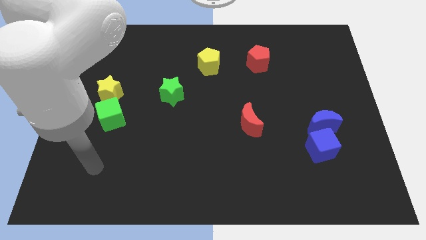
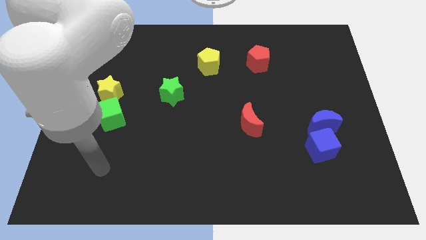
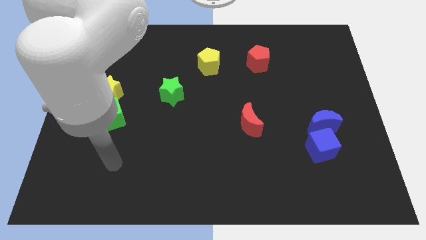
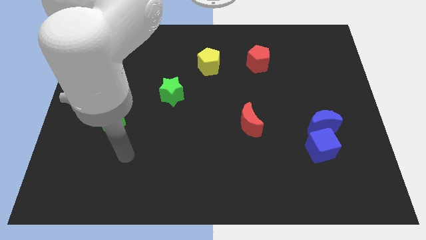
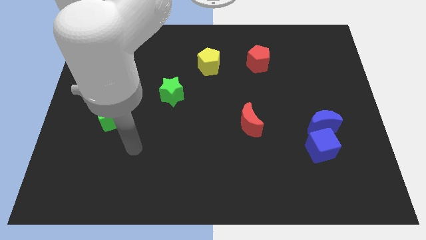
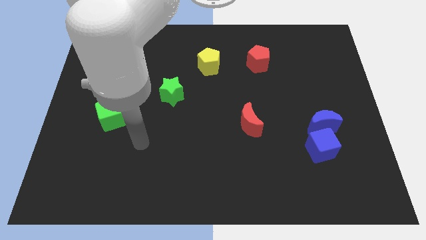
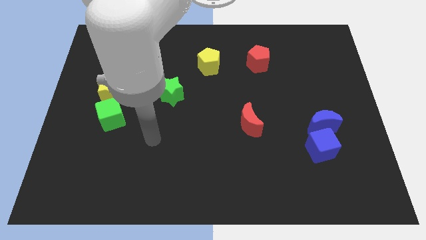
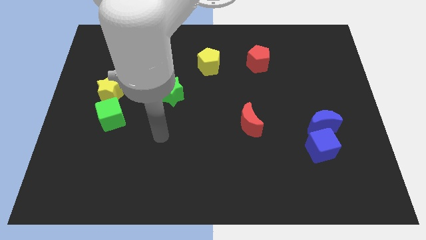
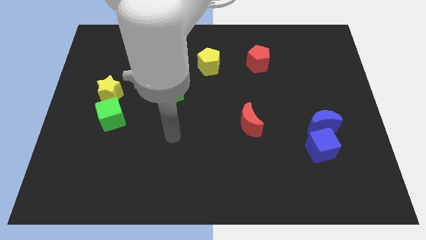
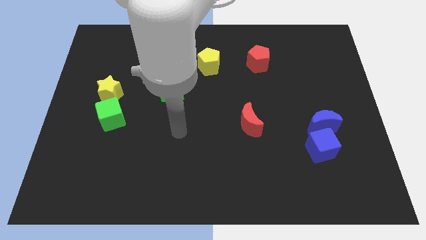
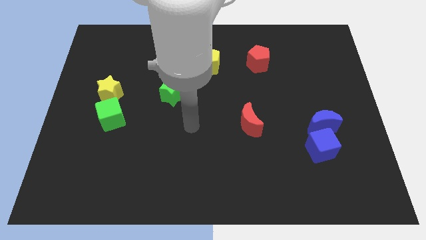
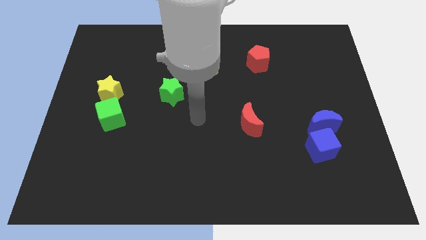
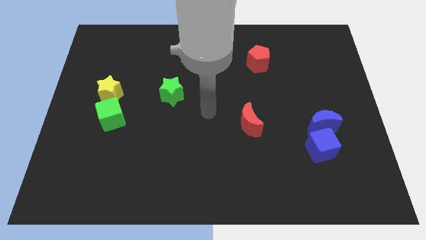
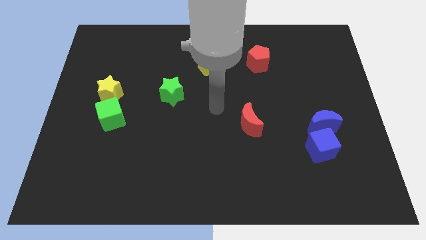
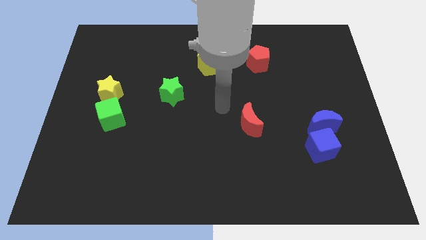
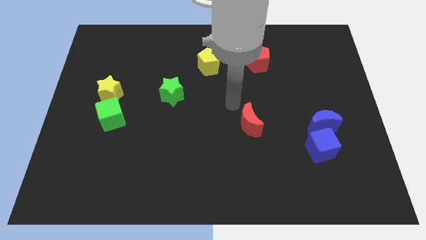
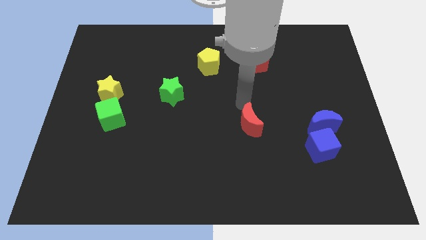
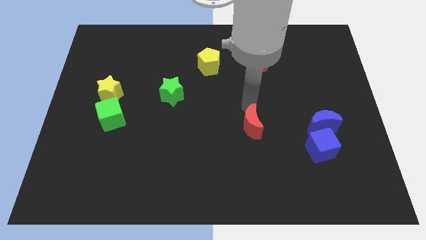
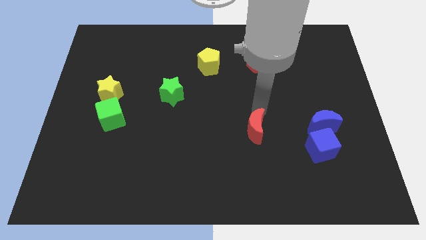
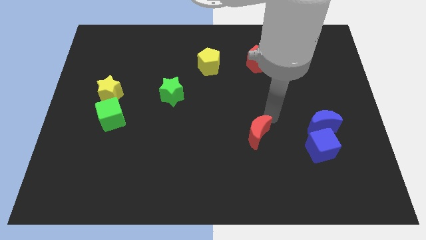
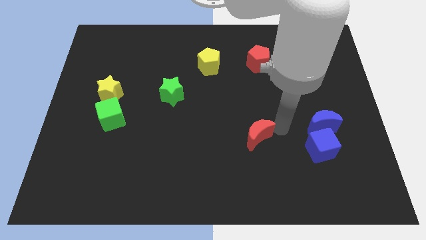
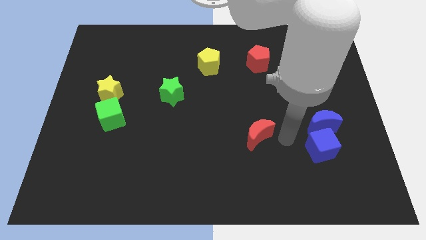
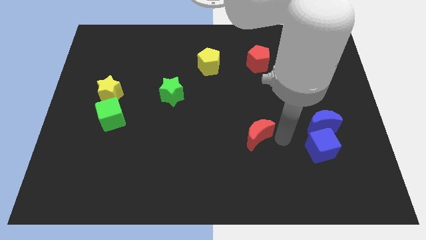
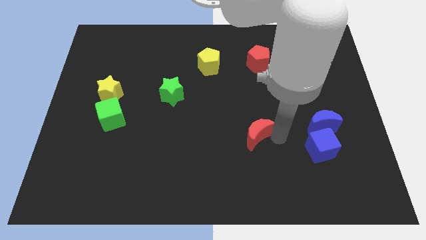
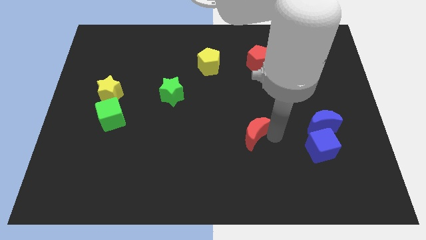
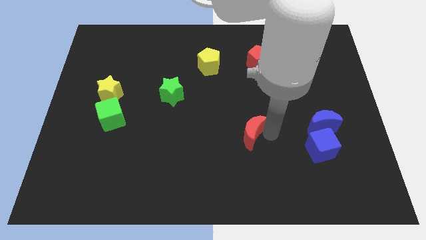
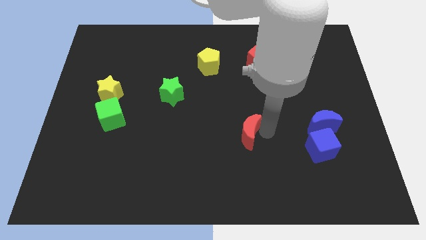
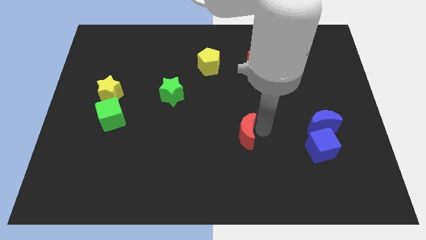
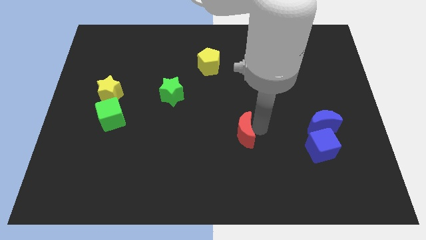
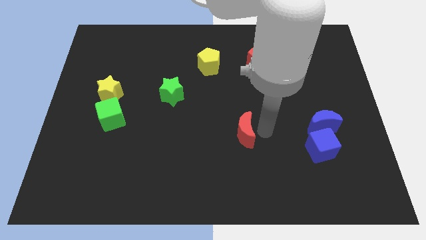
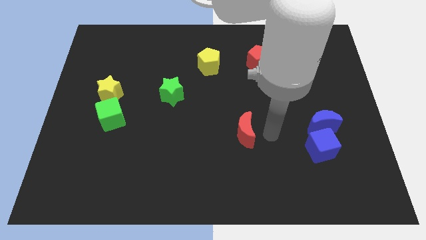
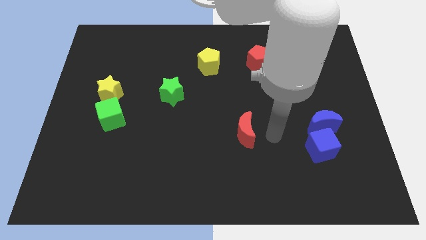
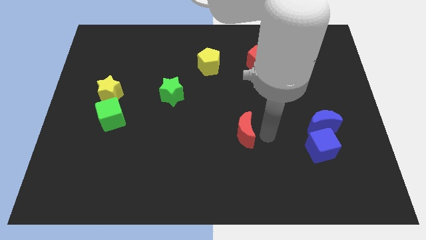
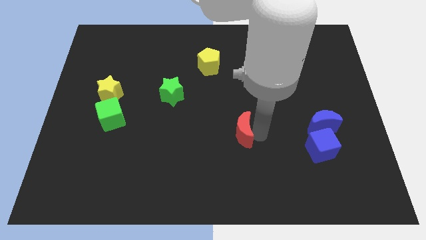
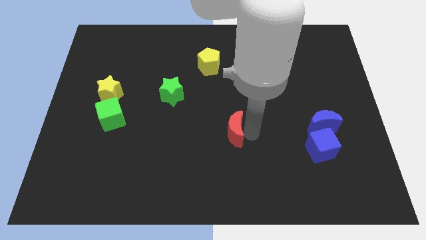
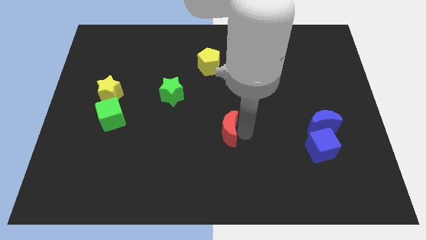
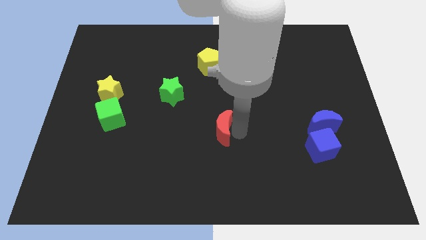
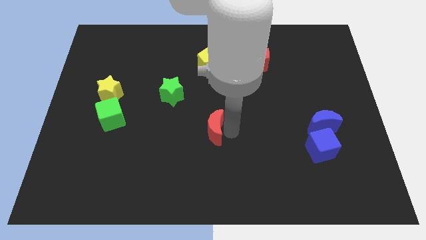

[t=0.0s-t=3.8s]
slightly push the red moon left

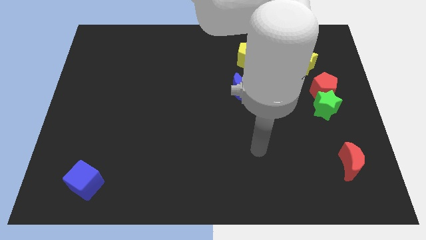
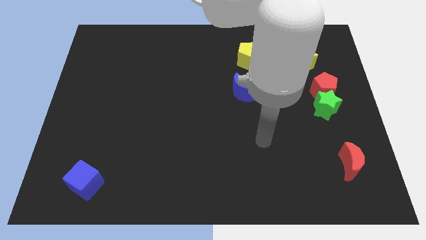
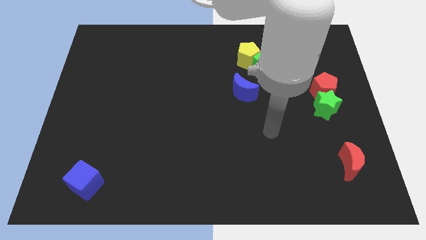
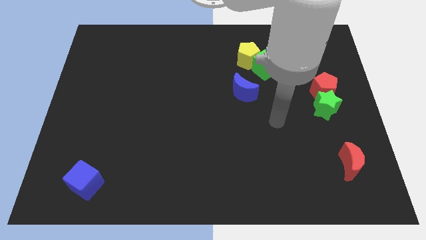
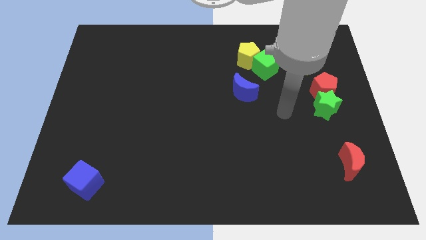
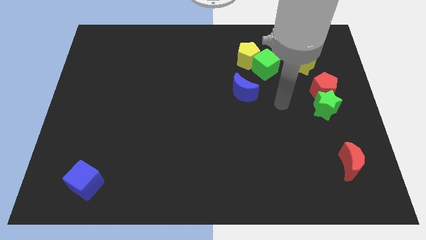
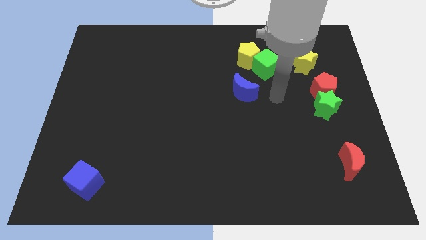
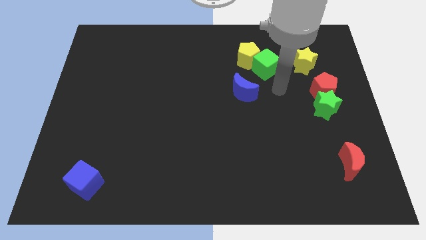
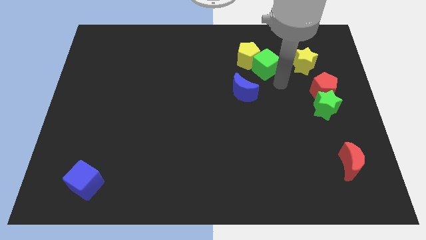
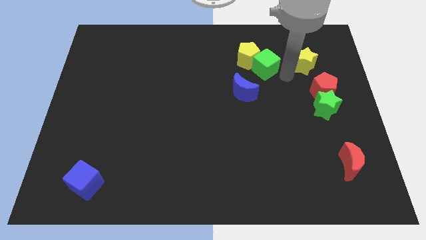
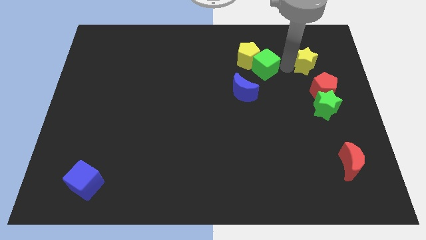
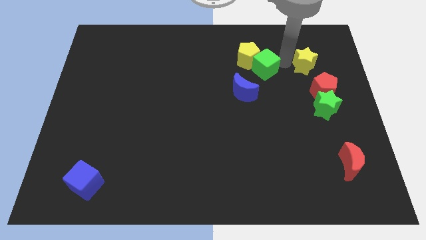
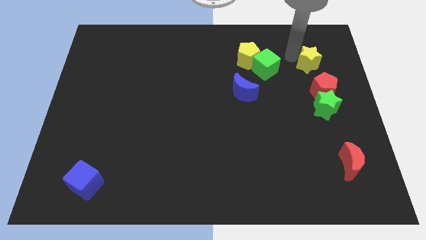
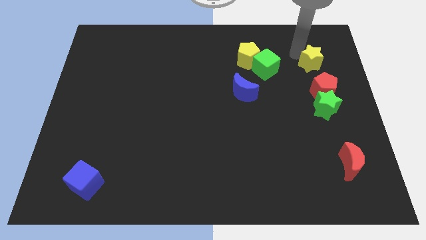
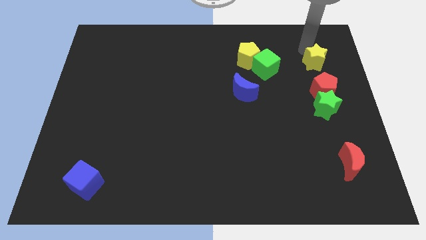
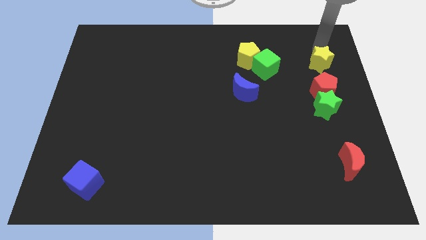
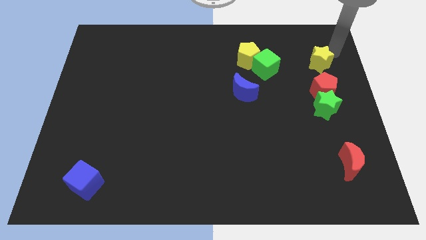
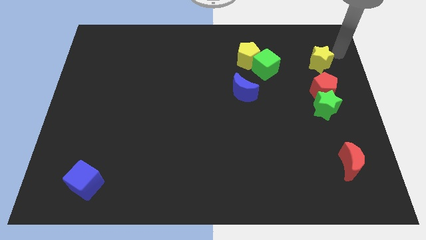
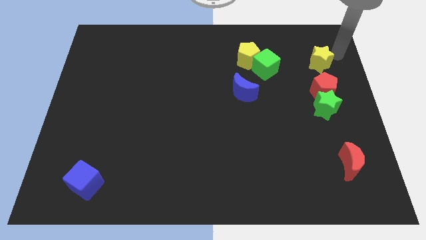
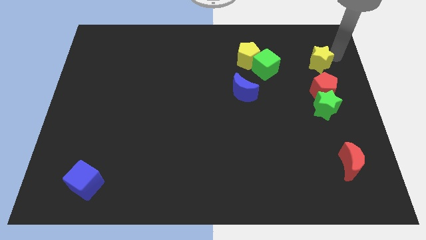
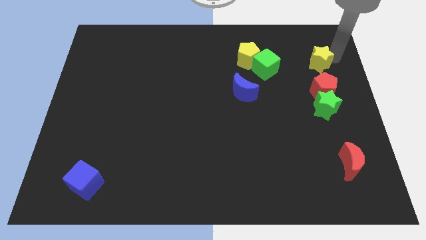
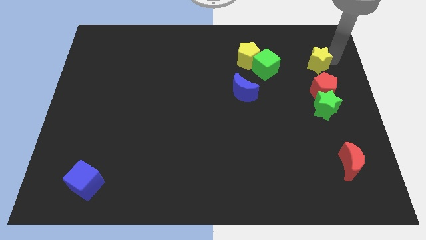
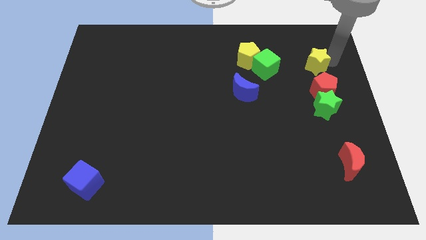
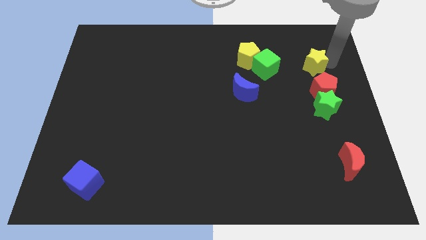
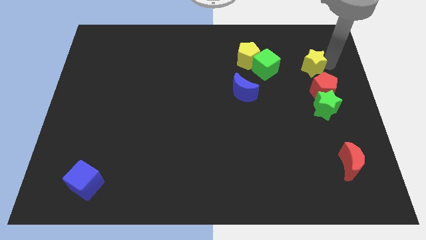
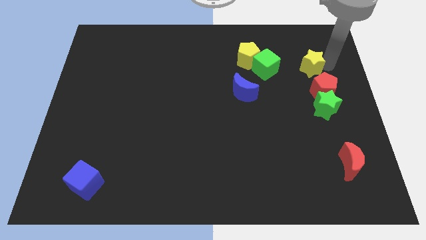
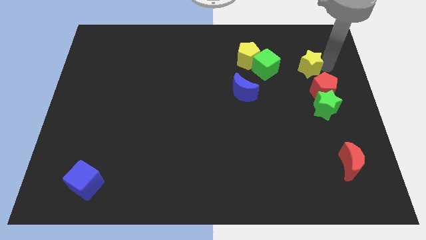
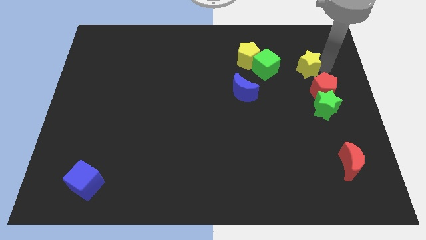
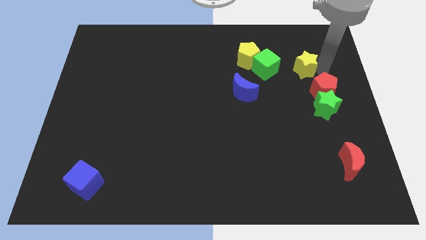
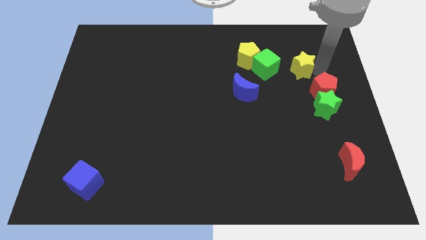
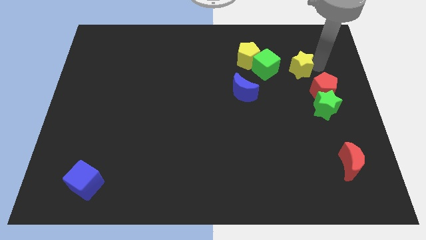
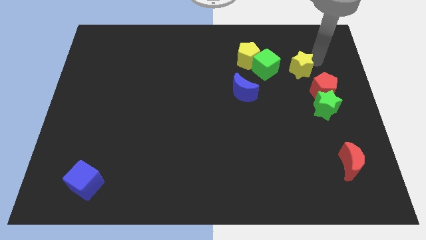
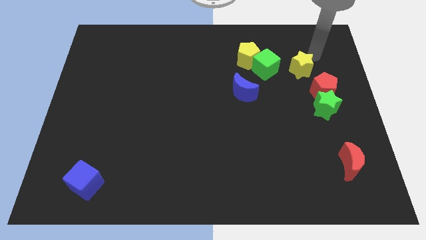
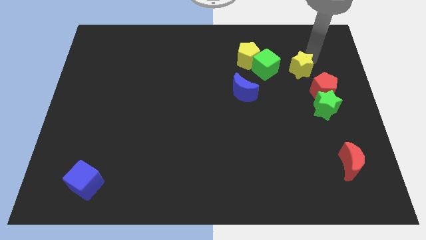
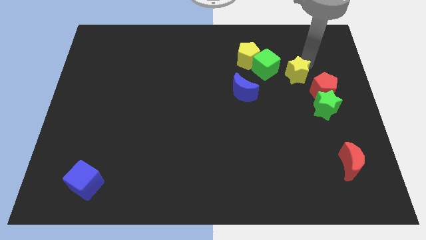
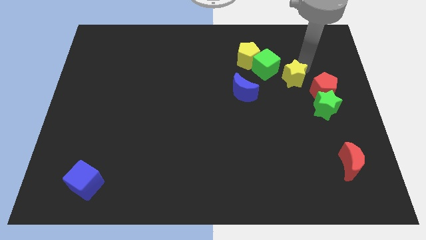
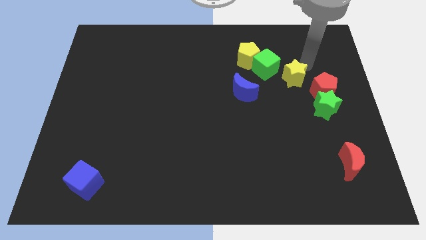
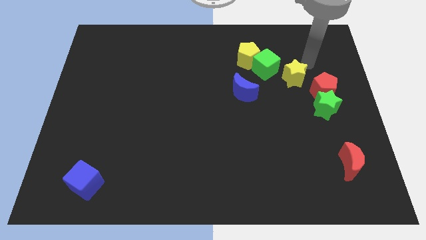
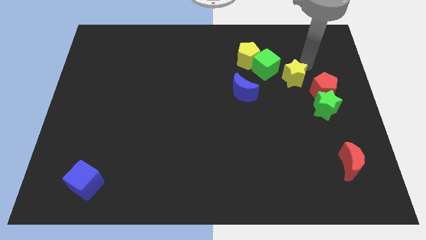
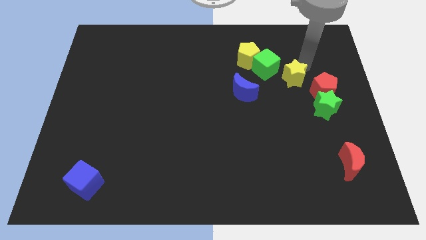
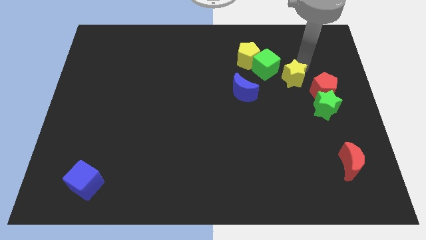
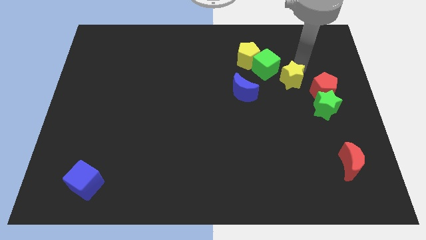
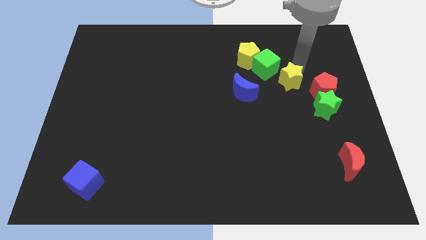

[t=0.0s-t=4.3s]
push the yellow star somewhat diagonally down and left
